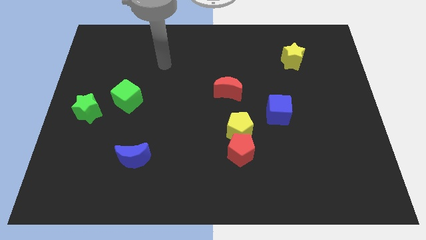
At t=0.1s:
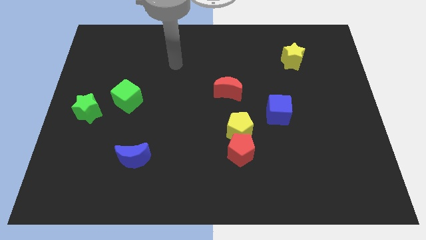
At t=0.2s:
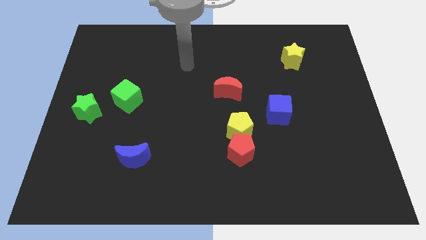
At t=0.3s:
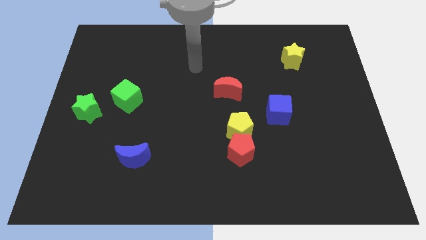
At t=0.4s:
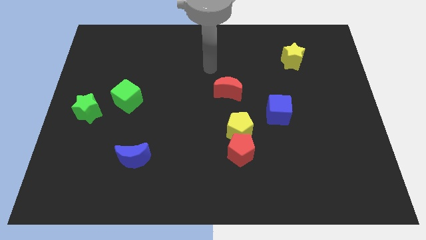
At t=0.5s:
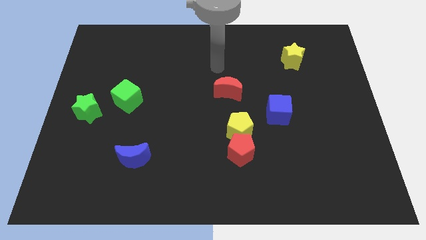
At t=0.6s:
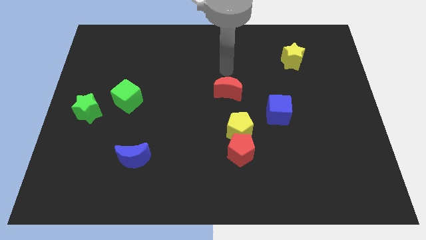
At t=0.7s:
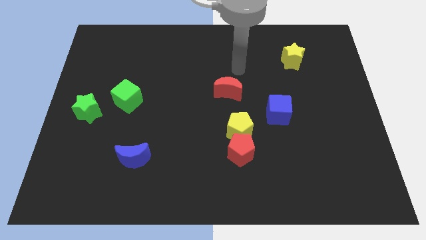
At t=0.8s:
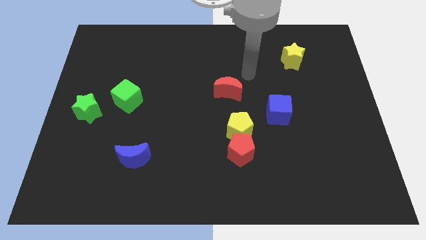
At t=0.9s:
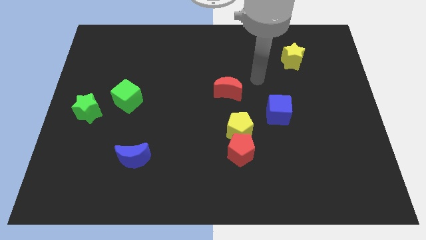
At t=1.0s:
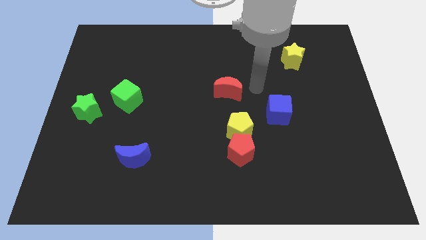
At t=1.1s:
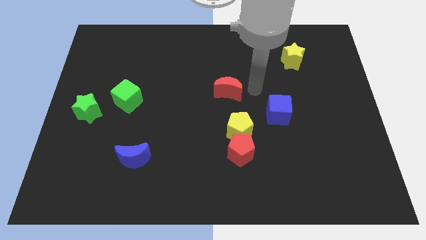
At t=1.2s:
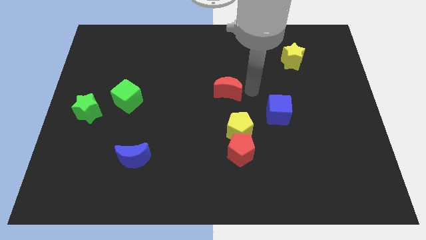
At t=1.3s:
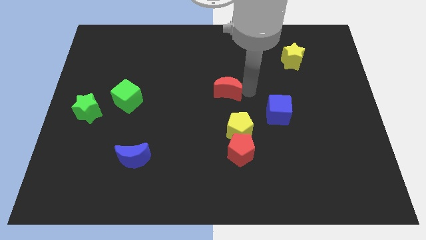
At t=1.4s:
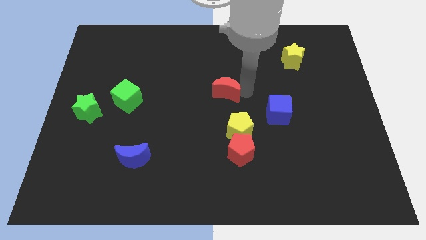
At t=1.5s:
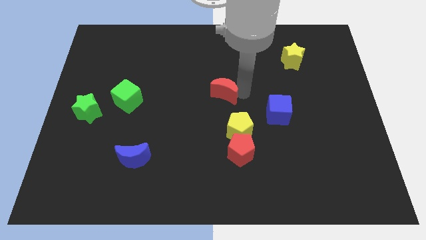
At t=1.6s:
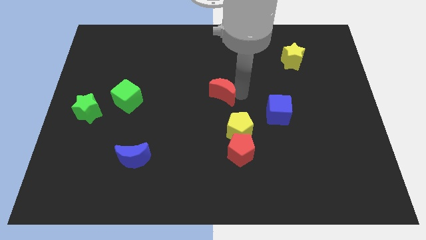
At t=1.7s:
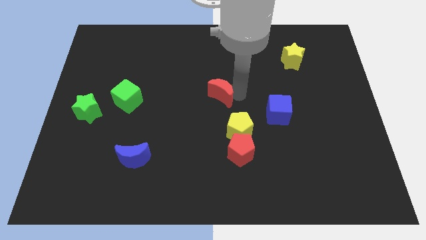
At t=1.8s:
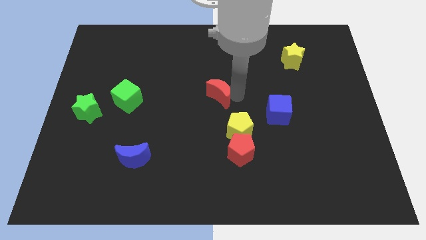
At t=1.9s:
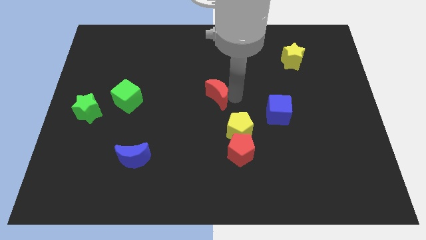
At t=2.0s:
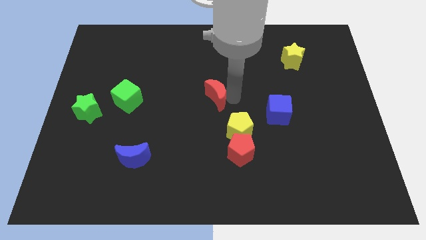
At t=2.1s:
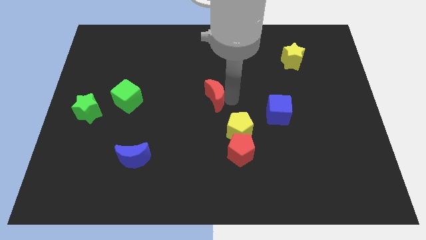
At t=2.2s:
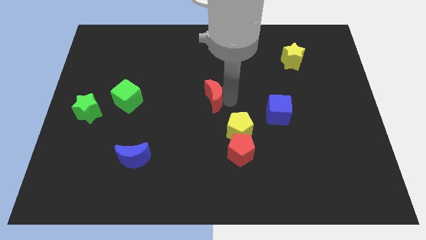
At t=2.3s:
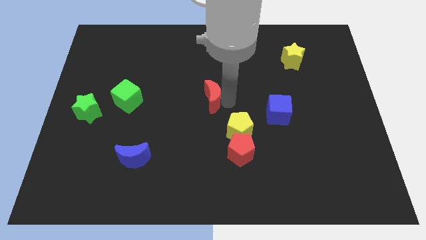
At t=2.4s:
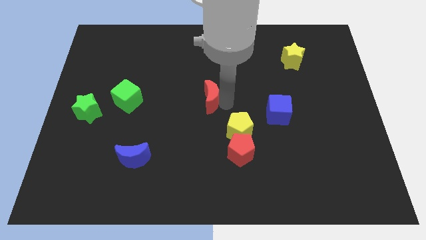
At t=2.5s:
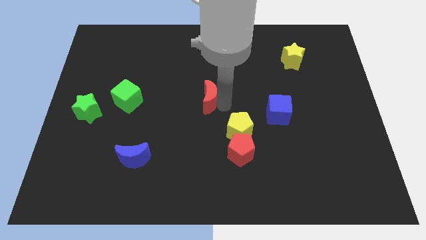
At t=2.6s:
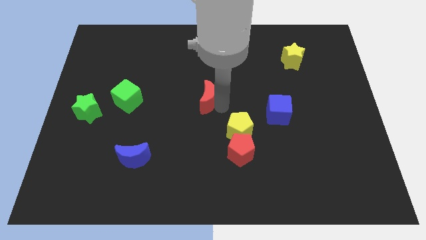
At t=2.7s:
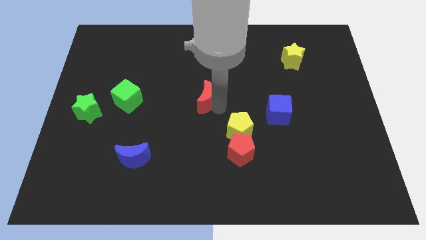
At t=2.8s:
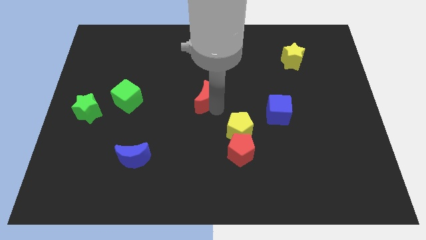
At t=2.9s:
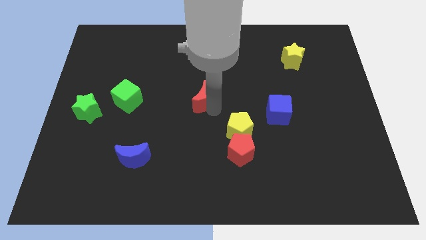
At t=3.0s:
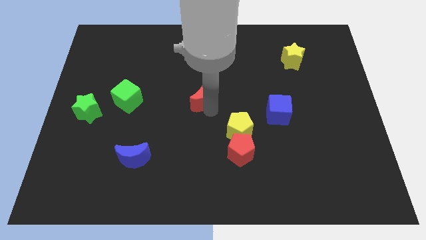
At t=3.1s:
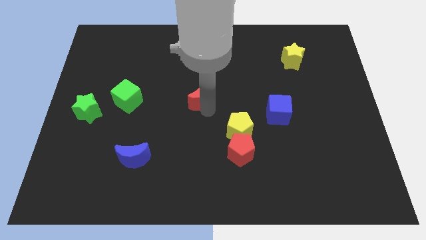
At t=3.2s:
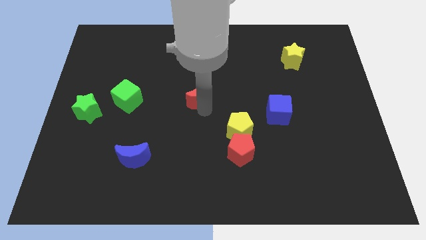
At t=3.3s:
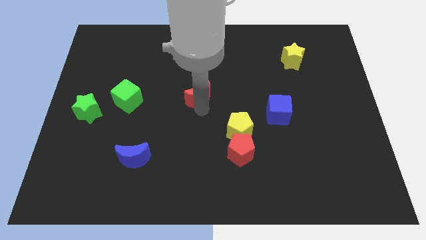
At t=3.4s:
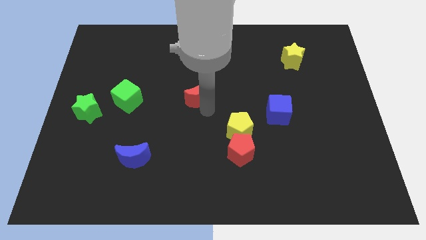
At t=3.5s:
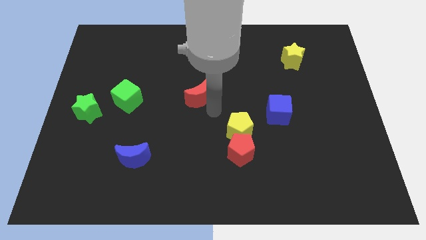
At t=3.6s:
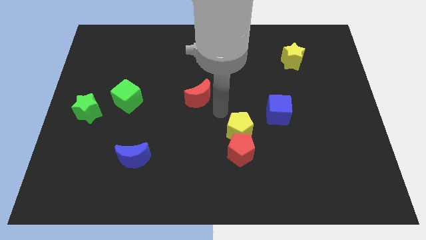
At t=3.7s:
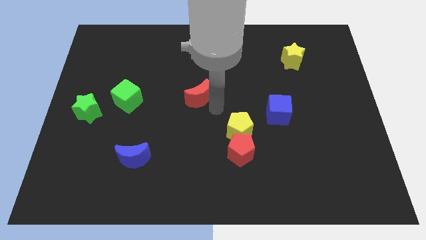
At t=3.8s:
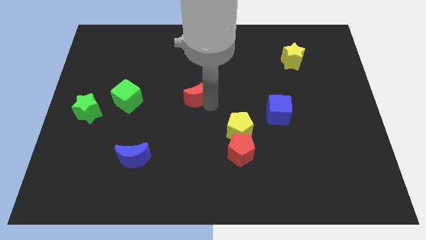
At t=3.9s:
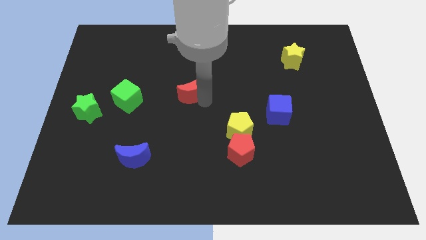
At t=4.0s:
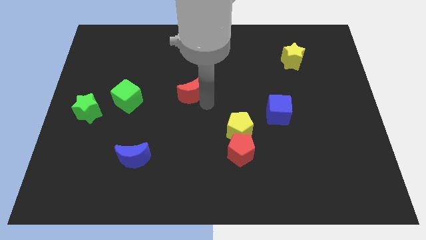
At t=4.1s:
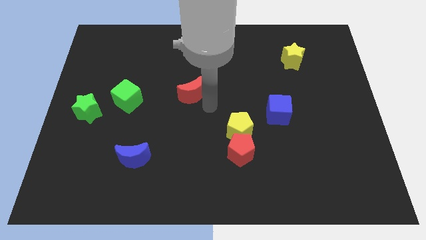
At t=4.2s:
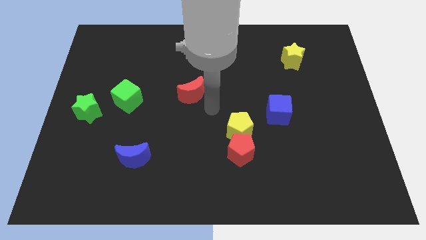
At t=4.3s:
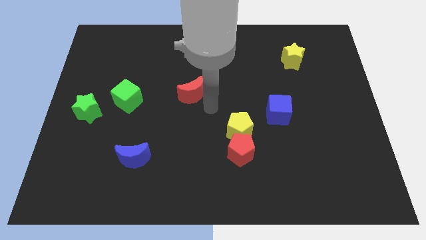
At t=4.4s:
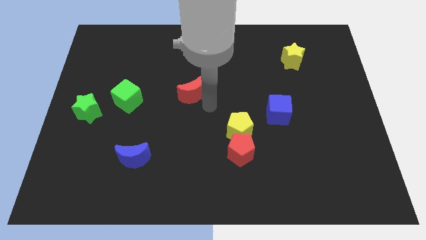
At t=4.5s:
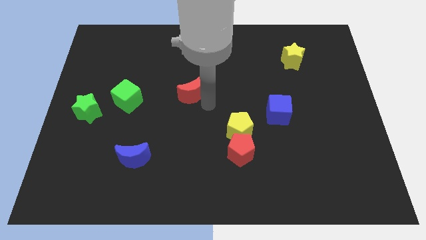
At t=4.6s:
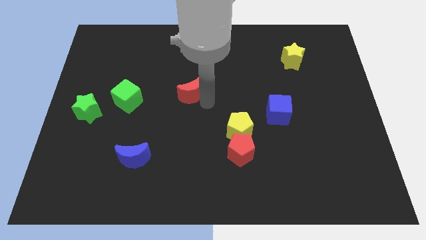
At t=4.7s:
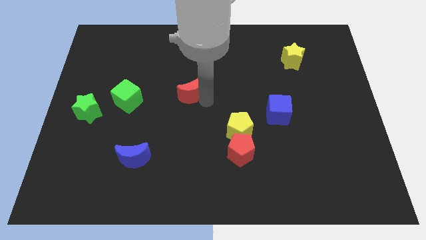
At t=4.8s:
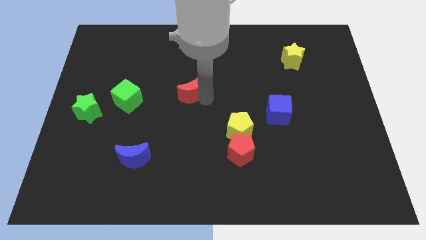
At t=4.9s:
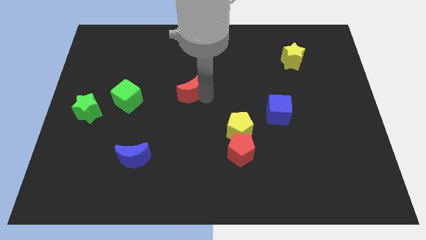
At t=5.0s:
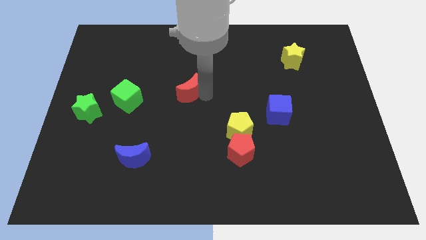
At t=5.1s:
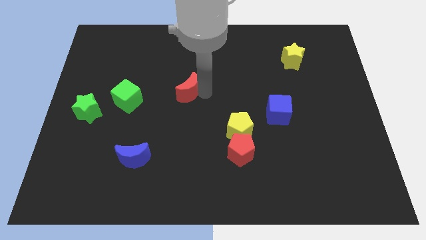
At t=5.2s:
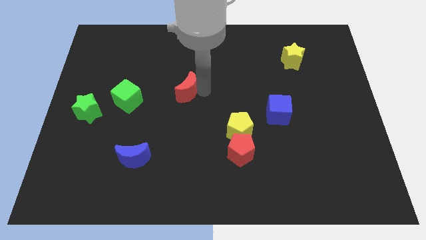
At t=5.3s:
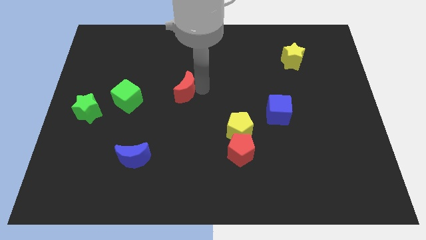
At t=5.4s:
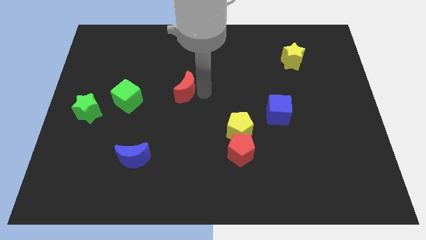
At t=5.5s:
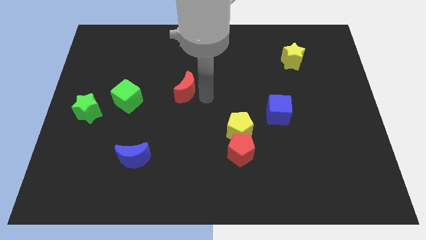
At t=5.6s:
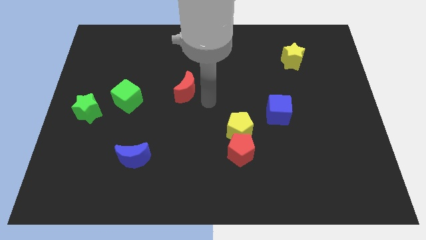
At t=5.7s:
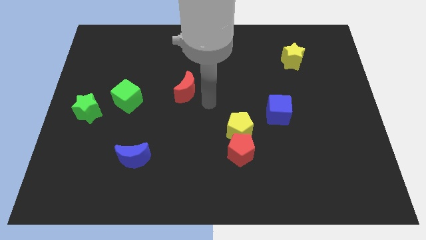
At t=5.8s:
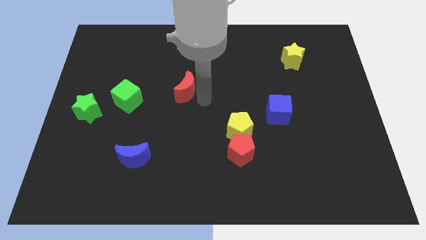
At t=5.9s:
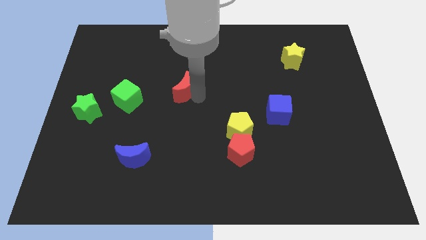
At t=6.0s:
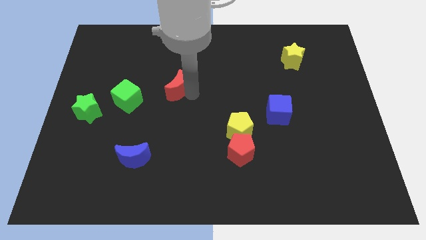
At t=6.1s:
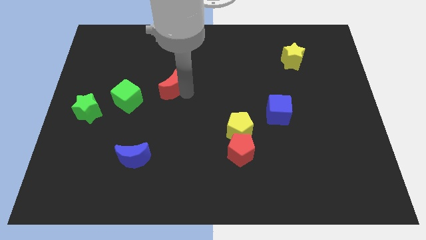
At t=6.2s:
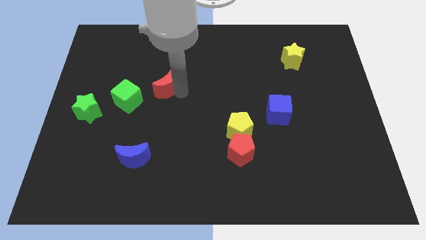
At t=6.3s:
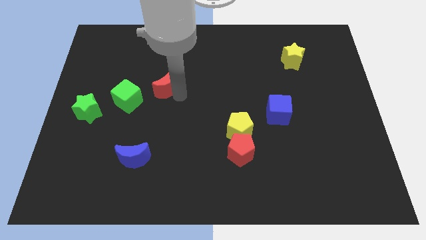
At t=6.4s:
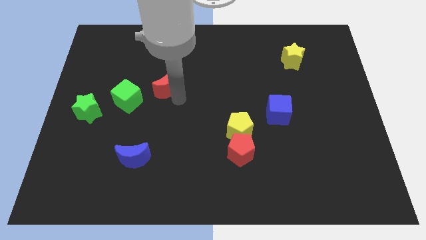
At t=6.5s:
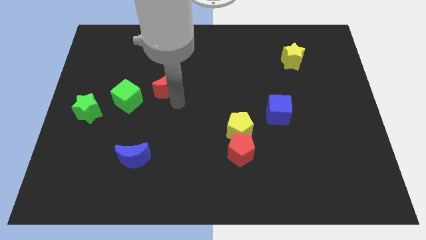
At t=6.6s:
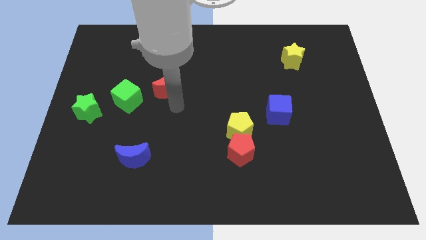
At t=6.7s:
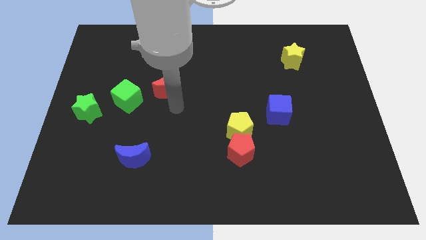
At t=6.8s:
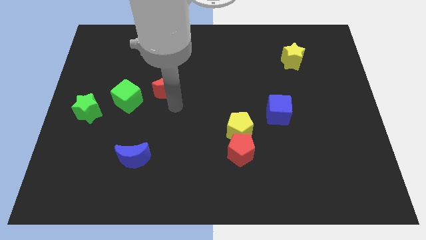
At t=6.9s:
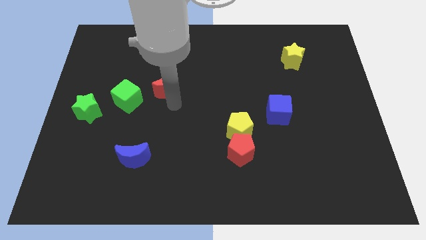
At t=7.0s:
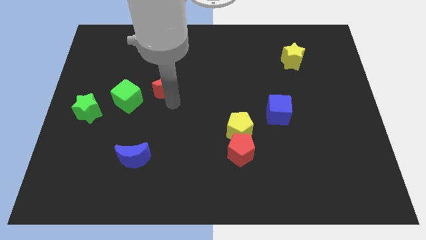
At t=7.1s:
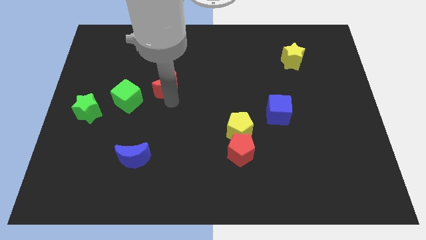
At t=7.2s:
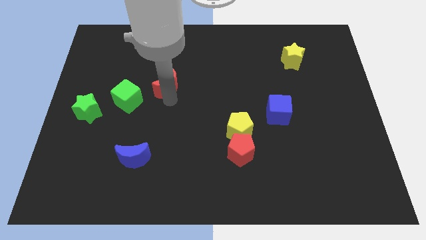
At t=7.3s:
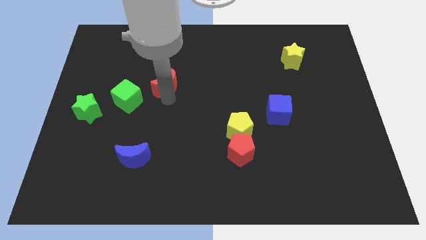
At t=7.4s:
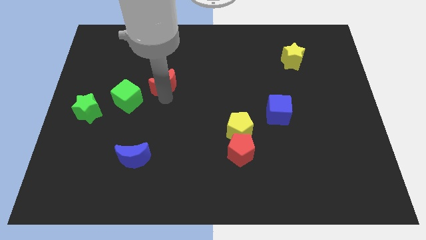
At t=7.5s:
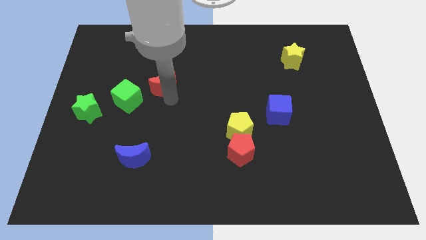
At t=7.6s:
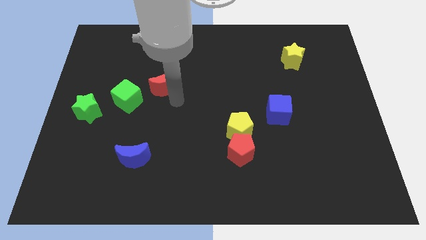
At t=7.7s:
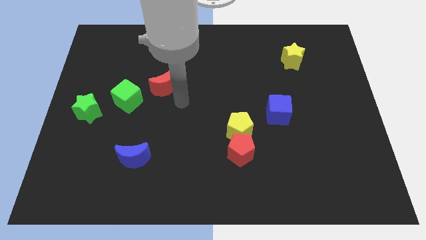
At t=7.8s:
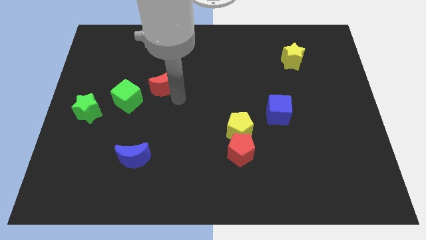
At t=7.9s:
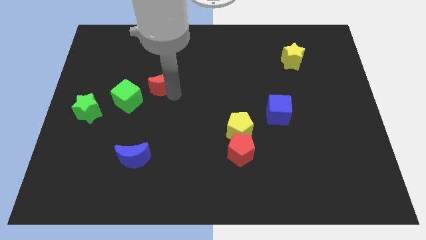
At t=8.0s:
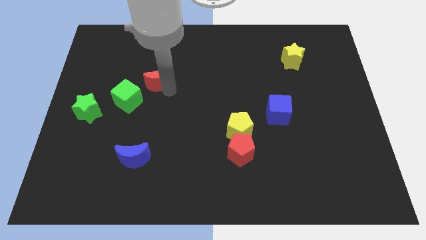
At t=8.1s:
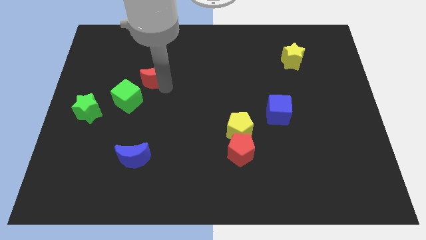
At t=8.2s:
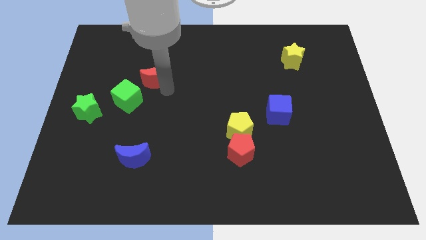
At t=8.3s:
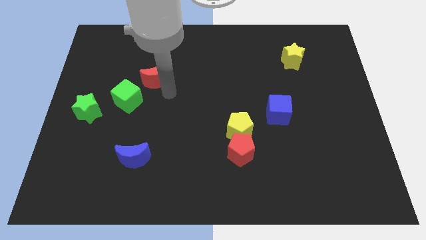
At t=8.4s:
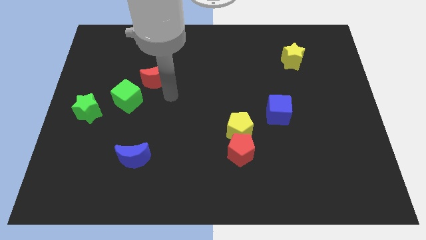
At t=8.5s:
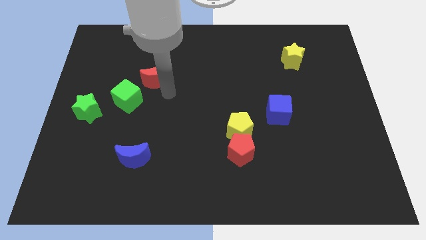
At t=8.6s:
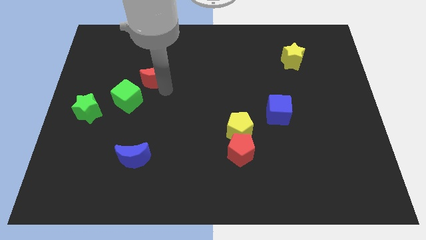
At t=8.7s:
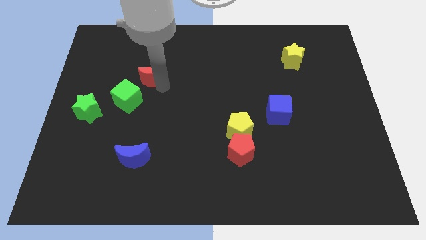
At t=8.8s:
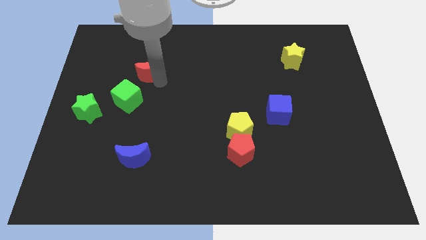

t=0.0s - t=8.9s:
put the red moon to the top of the green cube
